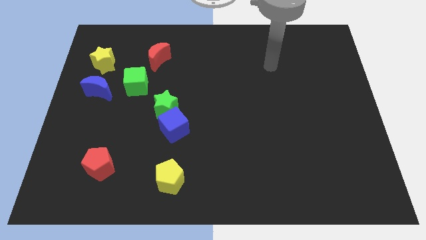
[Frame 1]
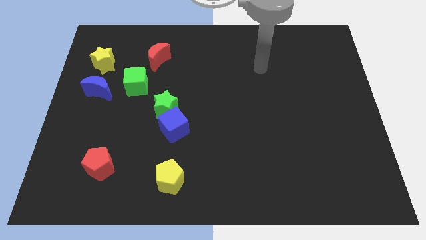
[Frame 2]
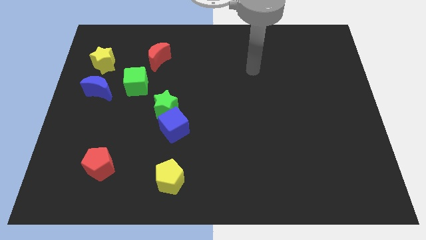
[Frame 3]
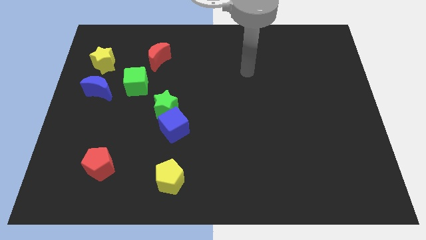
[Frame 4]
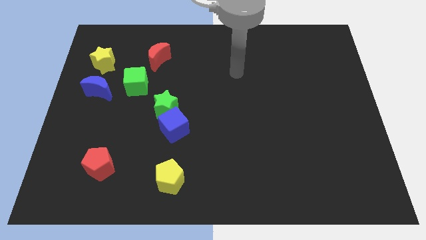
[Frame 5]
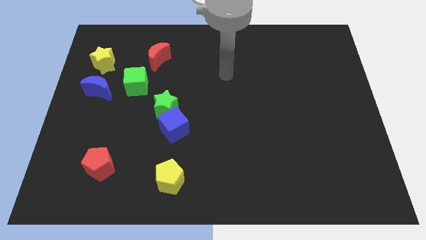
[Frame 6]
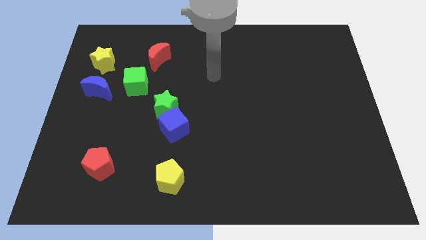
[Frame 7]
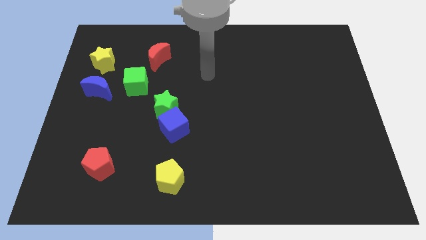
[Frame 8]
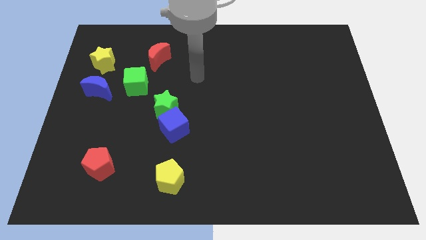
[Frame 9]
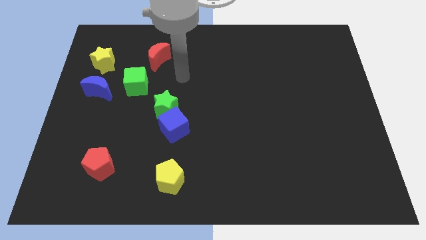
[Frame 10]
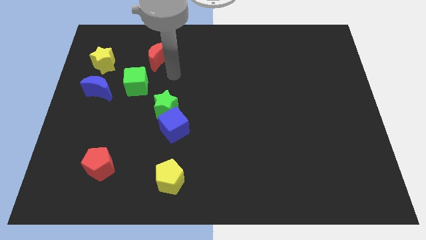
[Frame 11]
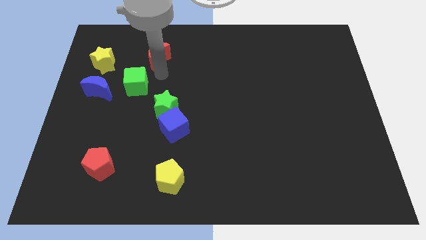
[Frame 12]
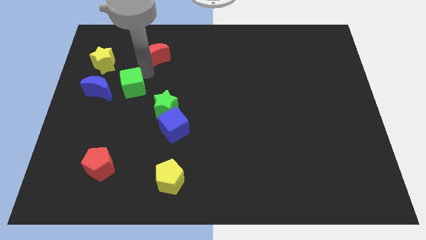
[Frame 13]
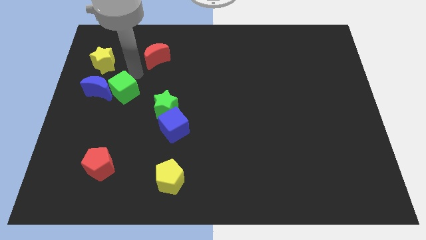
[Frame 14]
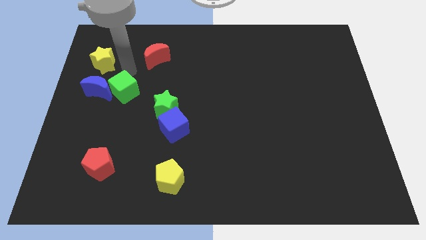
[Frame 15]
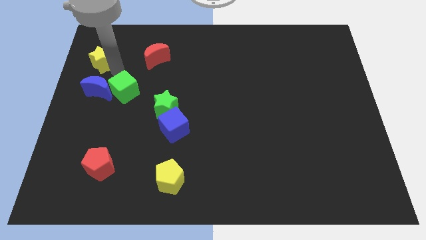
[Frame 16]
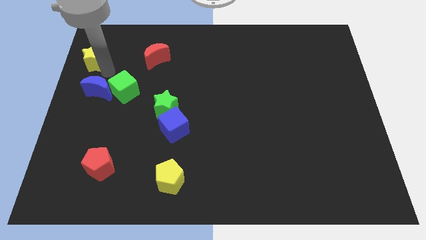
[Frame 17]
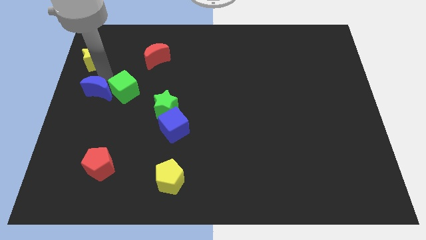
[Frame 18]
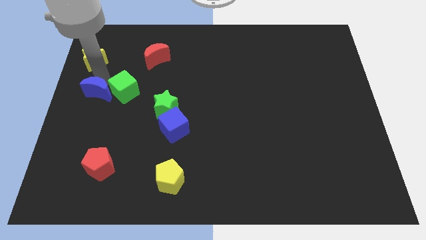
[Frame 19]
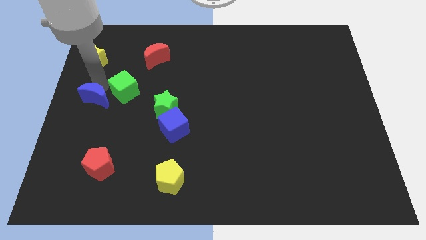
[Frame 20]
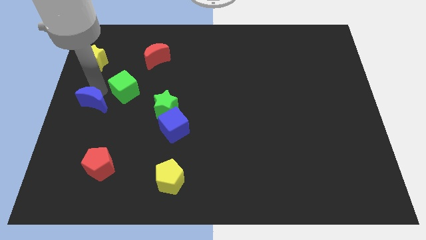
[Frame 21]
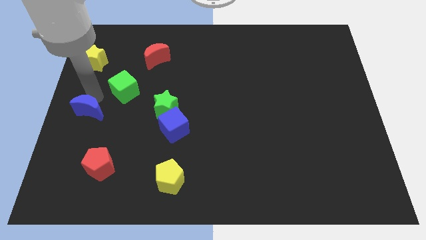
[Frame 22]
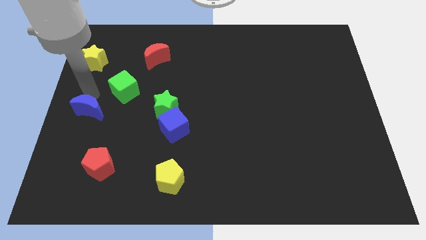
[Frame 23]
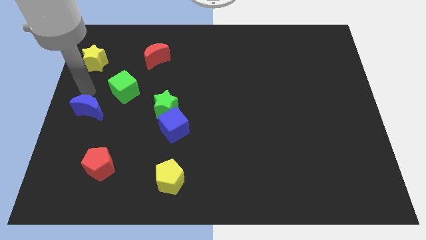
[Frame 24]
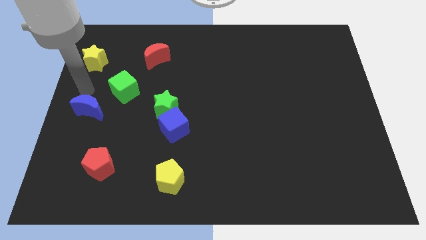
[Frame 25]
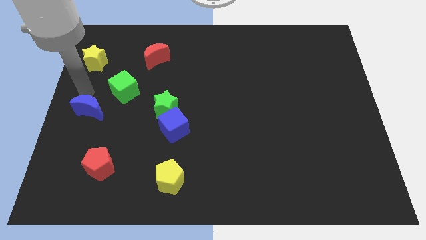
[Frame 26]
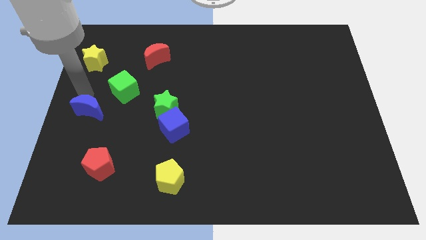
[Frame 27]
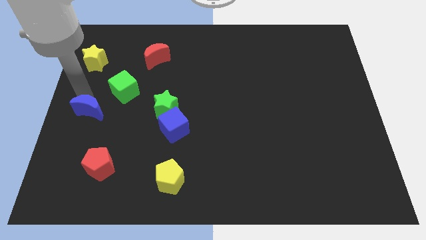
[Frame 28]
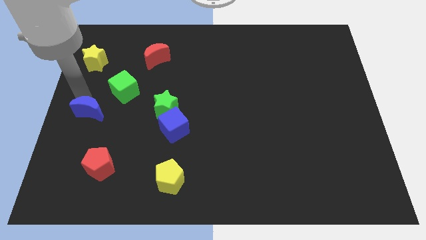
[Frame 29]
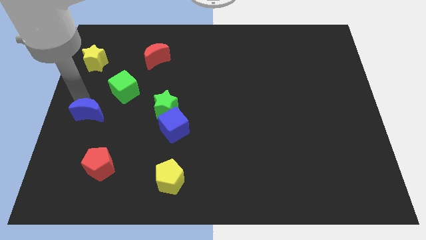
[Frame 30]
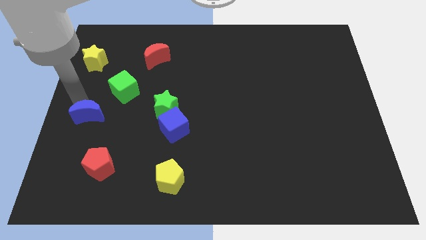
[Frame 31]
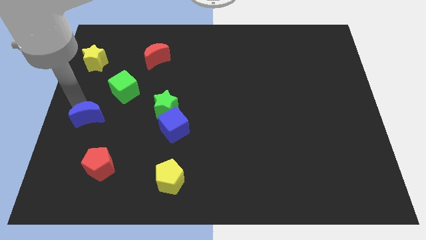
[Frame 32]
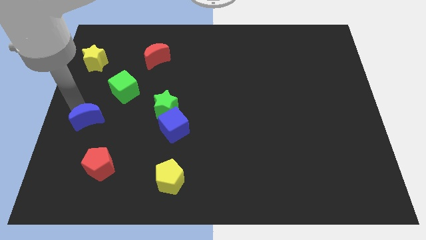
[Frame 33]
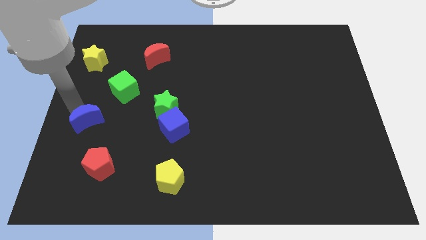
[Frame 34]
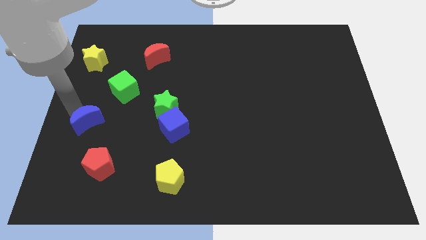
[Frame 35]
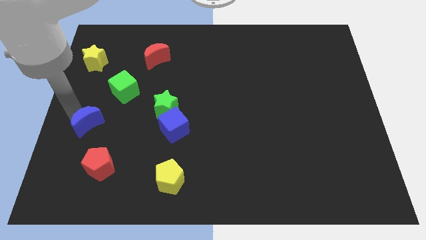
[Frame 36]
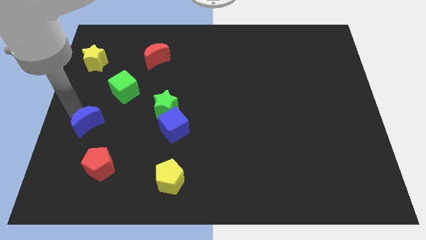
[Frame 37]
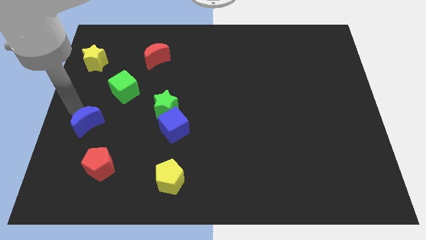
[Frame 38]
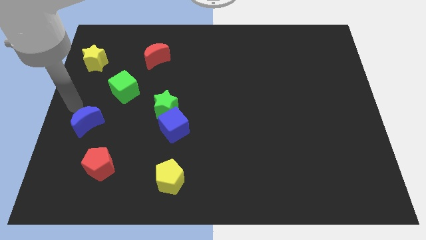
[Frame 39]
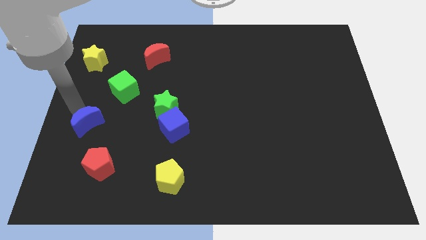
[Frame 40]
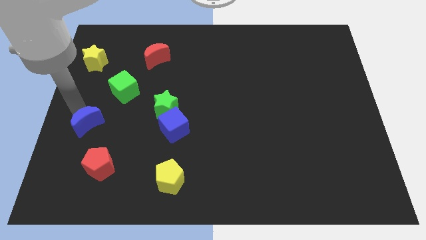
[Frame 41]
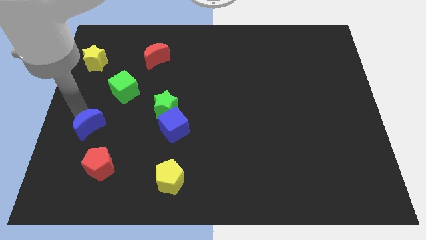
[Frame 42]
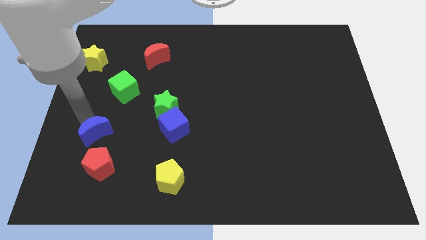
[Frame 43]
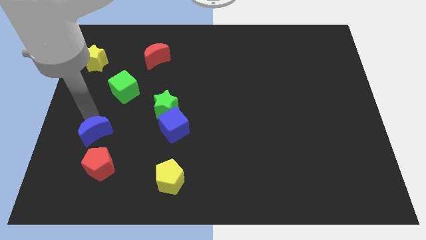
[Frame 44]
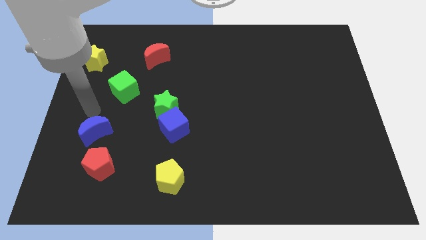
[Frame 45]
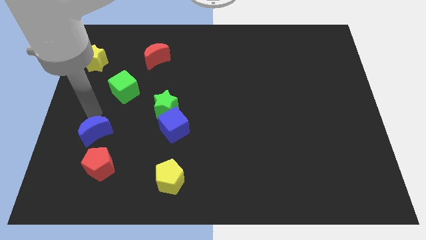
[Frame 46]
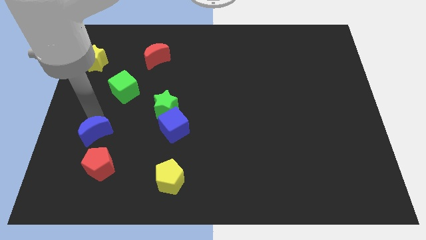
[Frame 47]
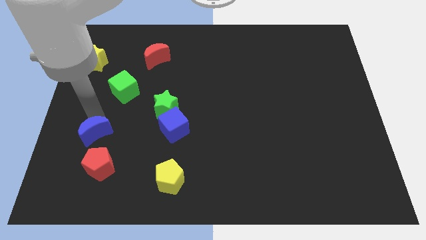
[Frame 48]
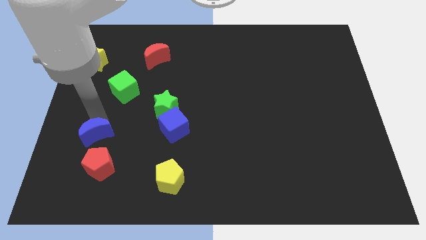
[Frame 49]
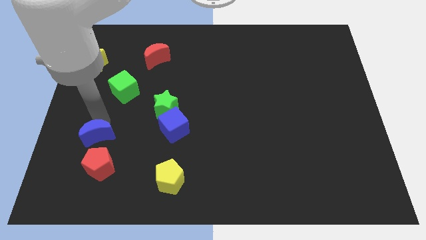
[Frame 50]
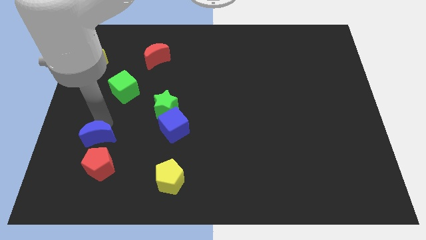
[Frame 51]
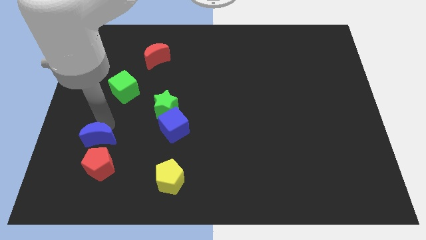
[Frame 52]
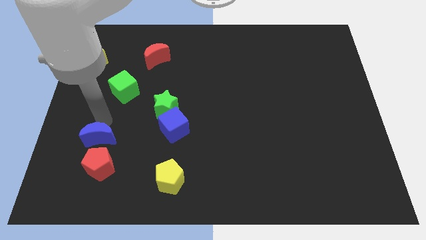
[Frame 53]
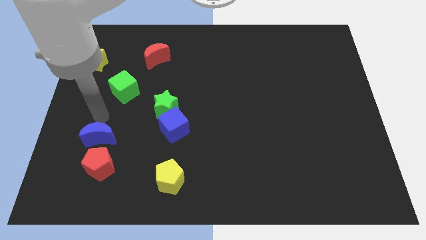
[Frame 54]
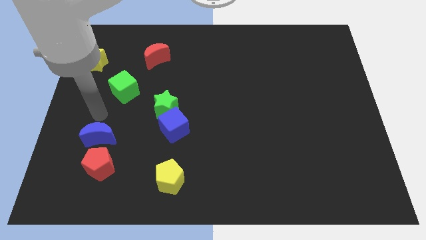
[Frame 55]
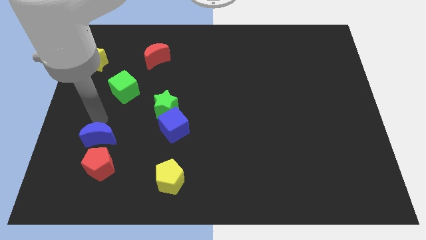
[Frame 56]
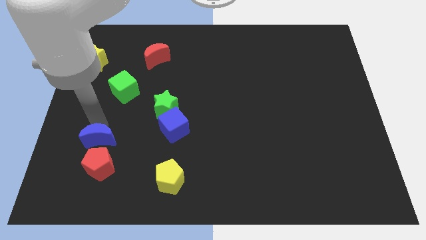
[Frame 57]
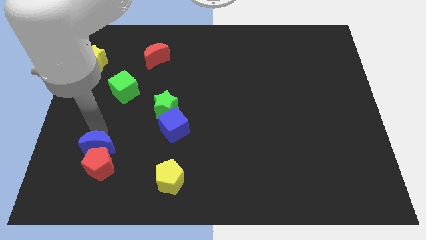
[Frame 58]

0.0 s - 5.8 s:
slide the blue moon towards the red pentagon

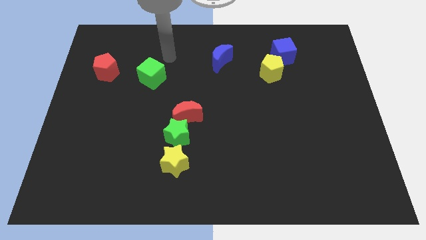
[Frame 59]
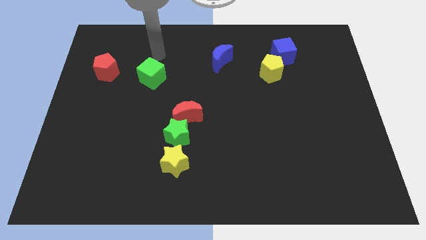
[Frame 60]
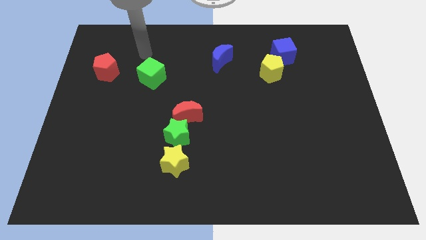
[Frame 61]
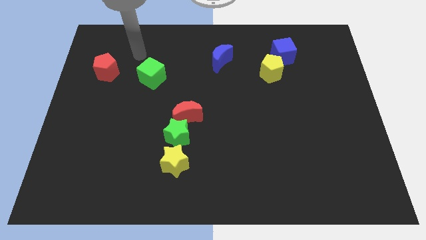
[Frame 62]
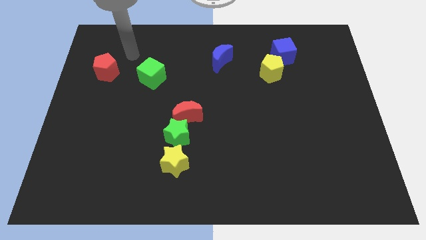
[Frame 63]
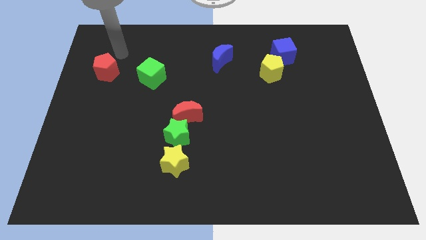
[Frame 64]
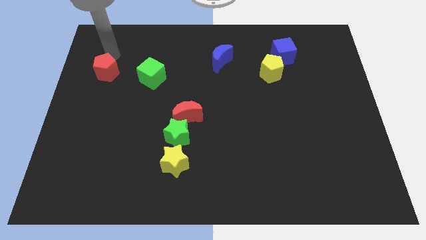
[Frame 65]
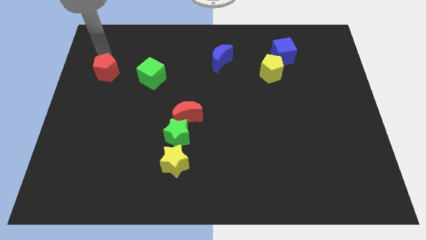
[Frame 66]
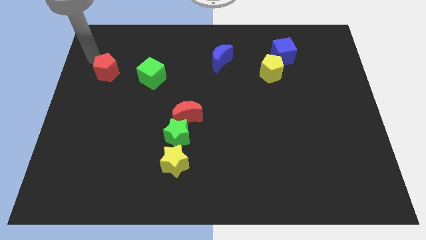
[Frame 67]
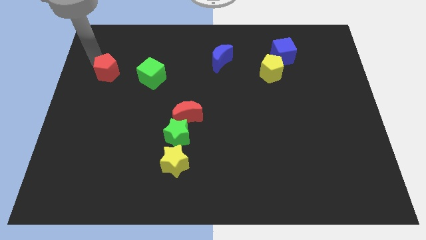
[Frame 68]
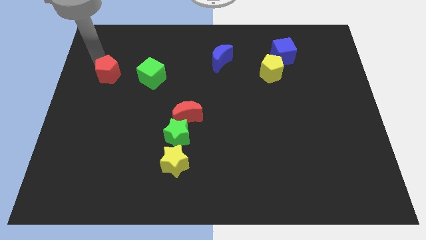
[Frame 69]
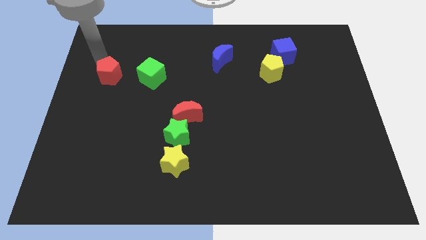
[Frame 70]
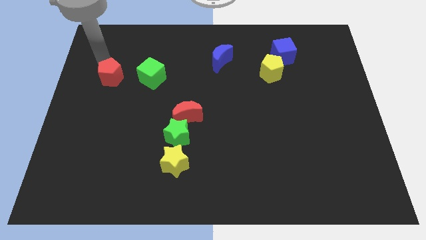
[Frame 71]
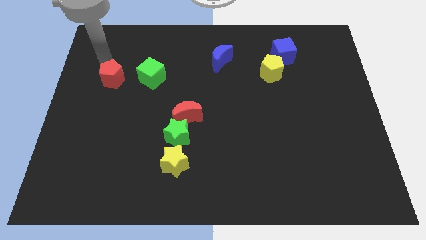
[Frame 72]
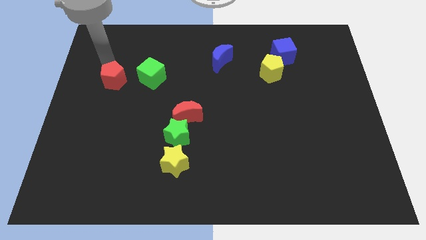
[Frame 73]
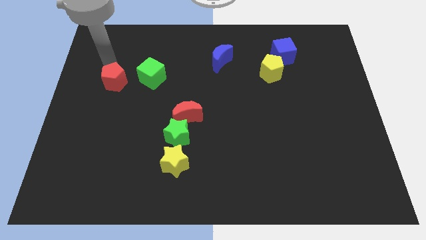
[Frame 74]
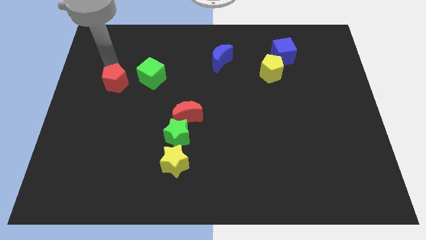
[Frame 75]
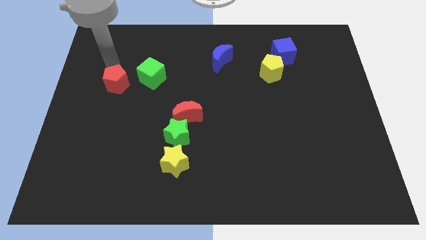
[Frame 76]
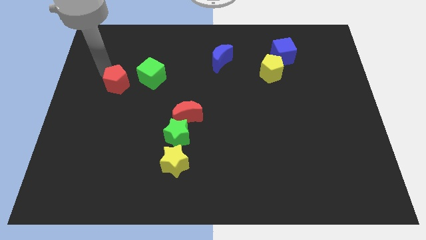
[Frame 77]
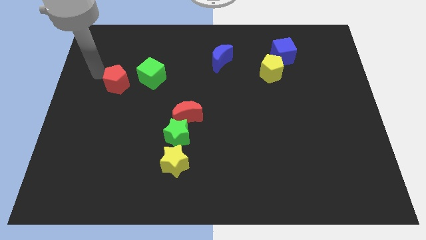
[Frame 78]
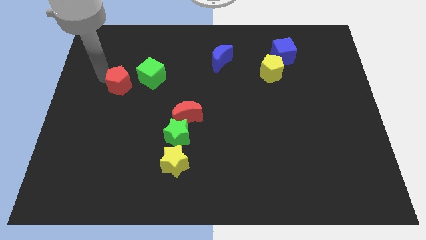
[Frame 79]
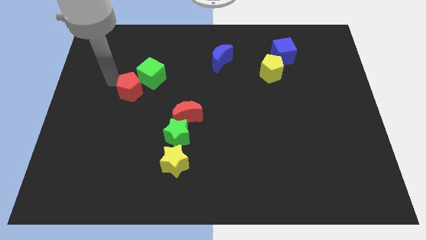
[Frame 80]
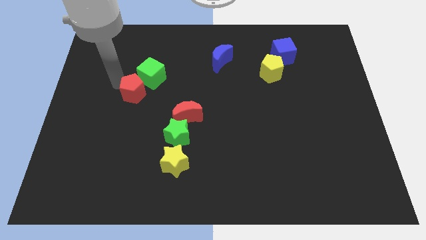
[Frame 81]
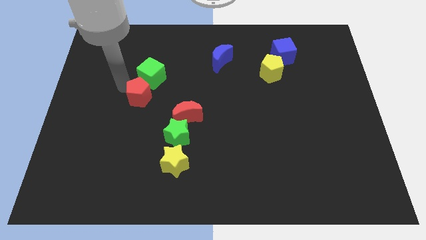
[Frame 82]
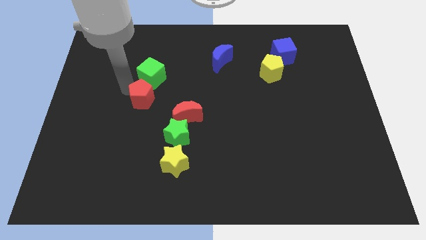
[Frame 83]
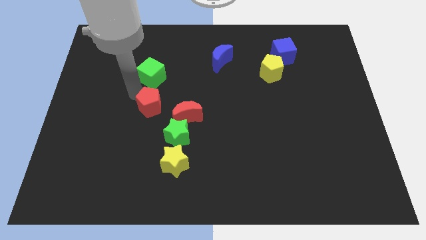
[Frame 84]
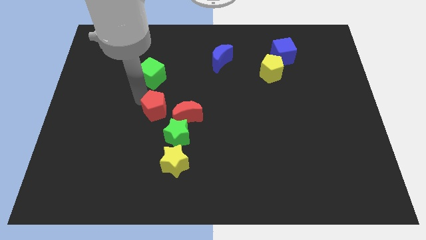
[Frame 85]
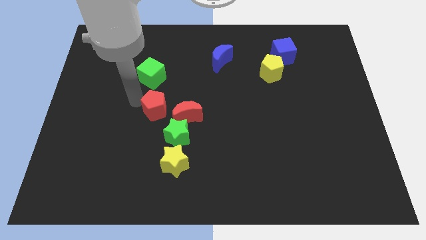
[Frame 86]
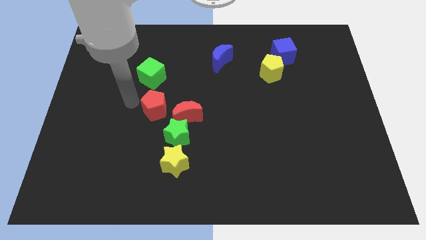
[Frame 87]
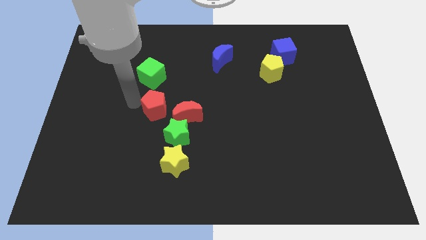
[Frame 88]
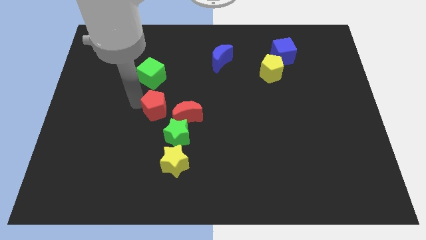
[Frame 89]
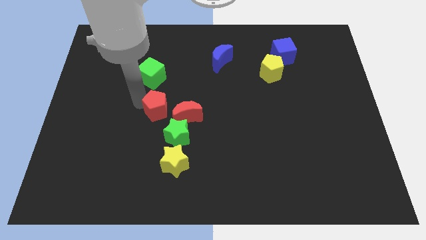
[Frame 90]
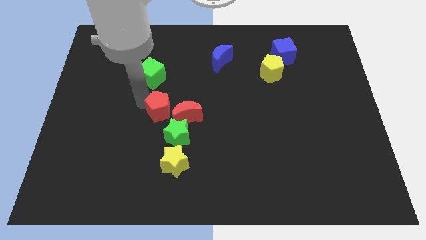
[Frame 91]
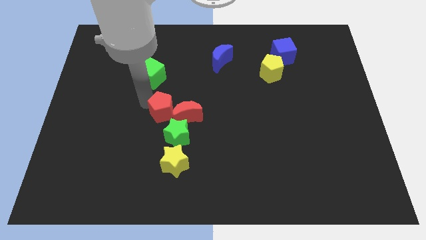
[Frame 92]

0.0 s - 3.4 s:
slide the red pentagon to the red moon
